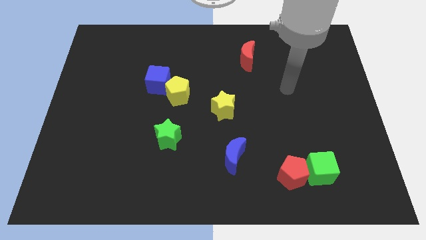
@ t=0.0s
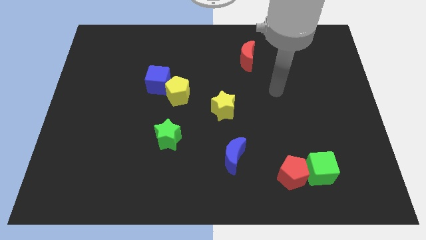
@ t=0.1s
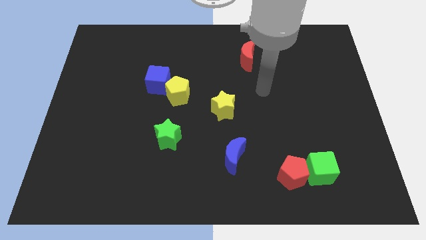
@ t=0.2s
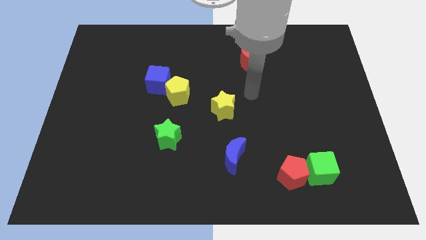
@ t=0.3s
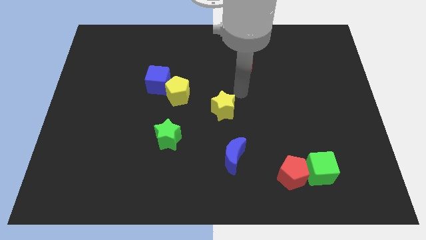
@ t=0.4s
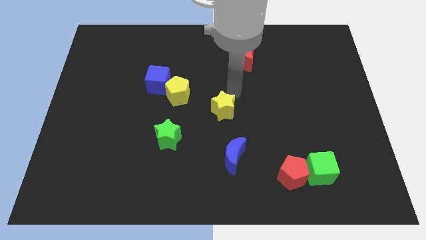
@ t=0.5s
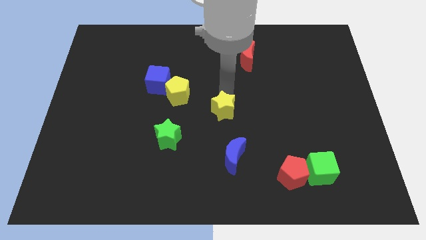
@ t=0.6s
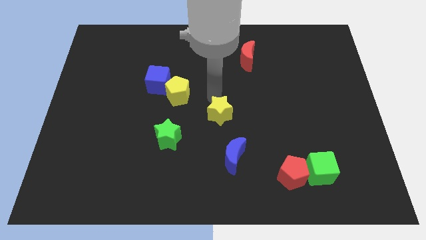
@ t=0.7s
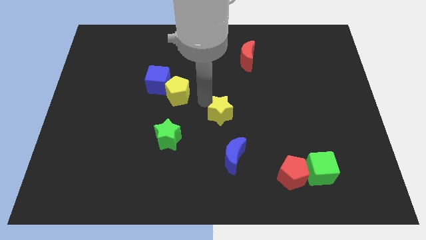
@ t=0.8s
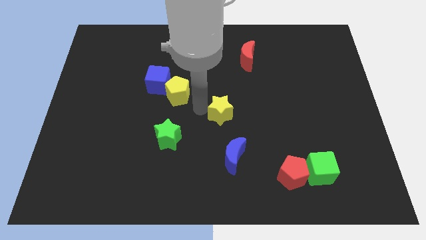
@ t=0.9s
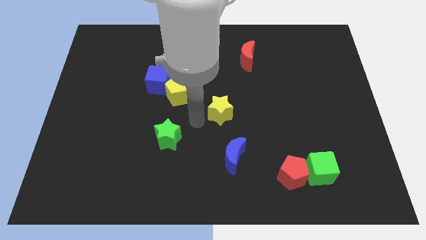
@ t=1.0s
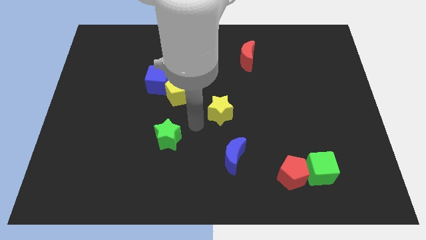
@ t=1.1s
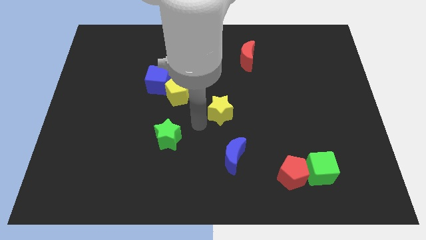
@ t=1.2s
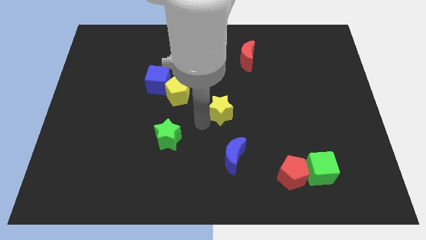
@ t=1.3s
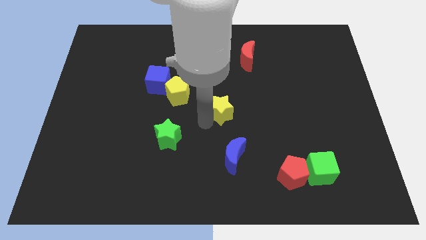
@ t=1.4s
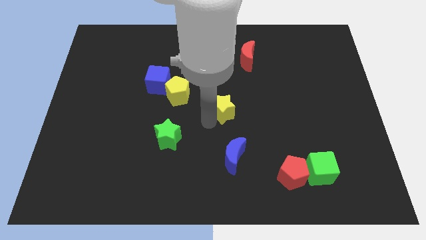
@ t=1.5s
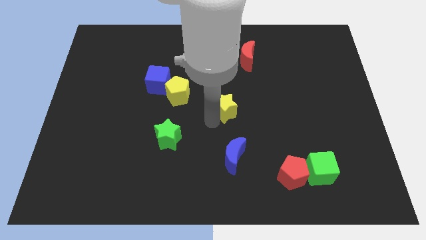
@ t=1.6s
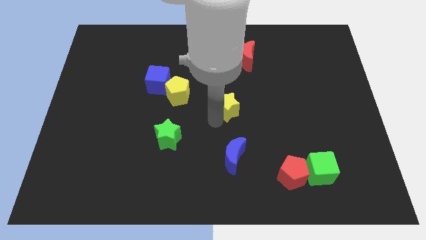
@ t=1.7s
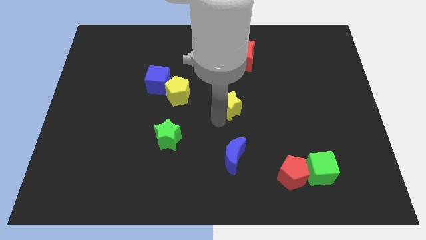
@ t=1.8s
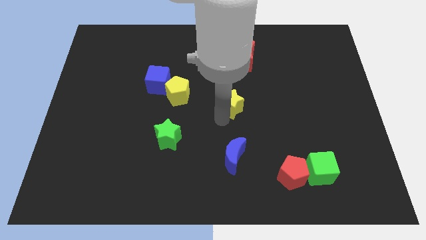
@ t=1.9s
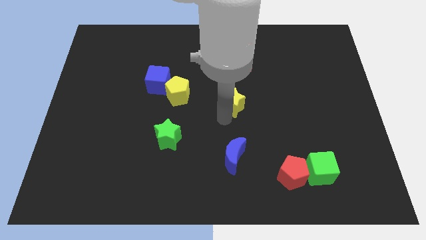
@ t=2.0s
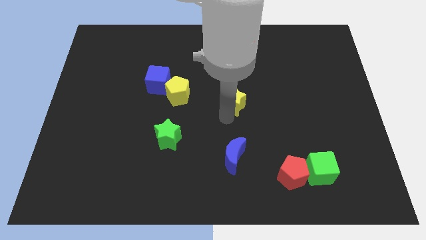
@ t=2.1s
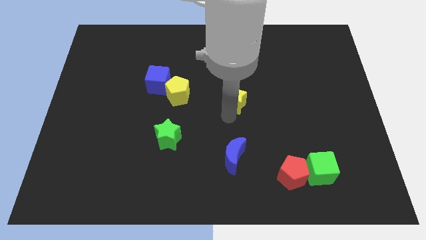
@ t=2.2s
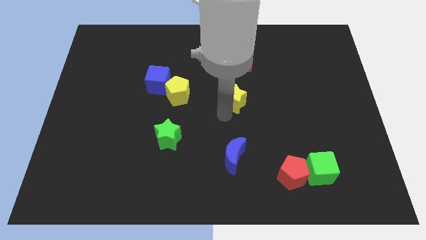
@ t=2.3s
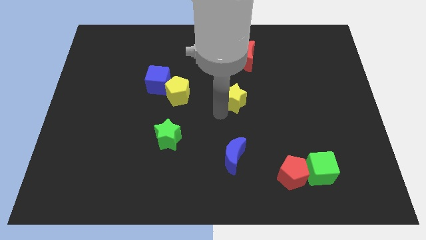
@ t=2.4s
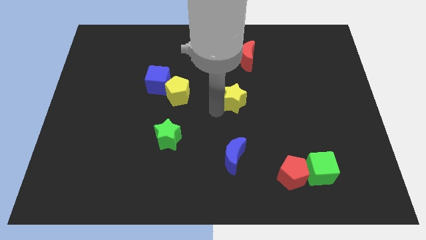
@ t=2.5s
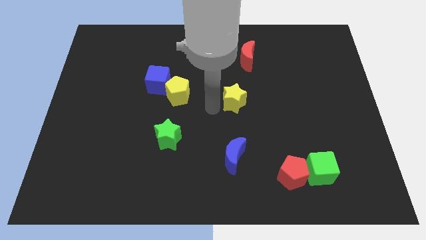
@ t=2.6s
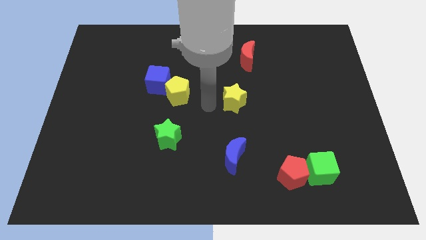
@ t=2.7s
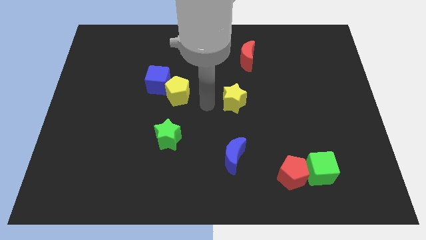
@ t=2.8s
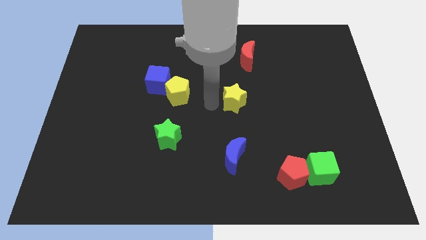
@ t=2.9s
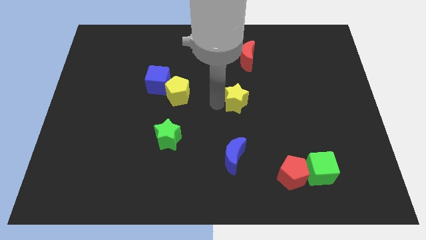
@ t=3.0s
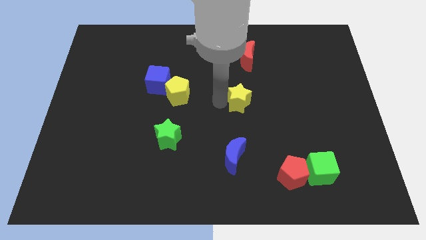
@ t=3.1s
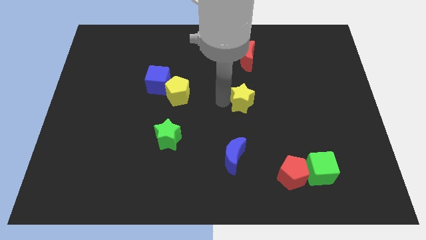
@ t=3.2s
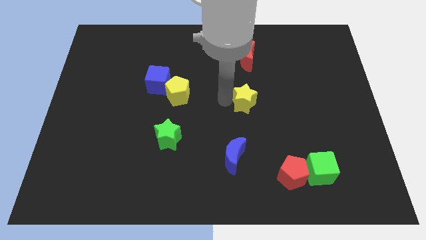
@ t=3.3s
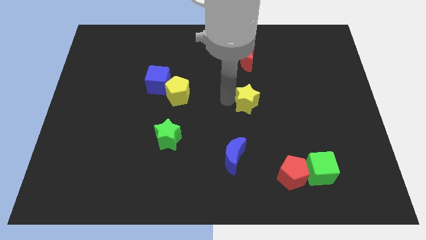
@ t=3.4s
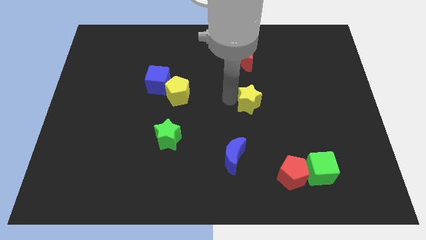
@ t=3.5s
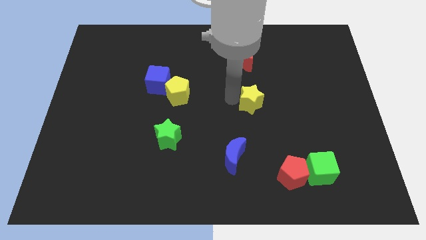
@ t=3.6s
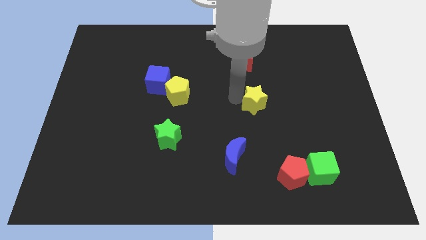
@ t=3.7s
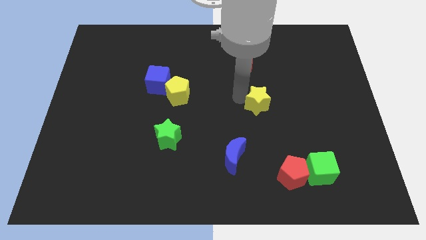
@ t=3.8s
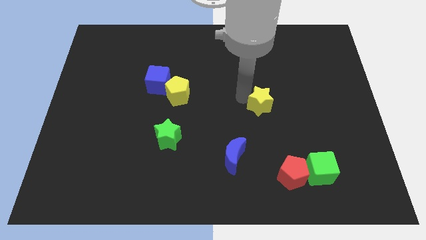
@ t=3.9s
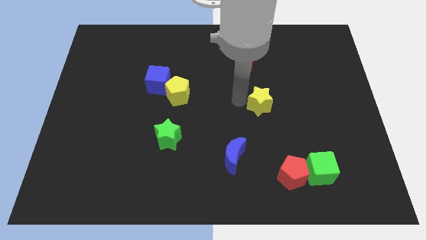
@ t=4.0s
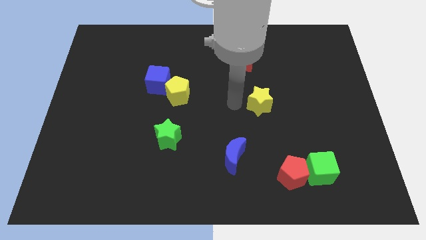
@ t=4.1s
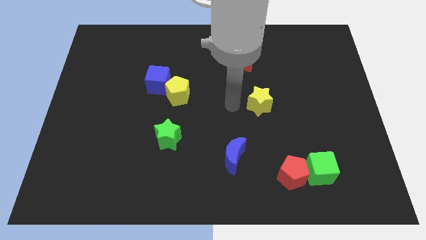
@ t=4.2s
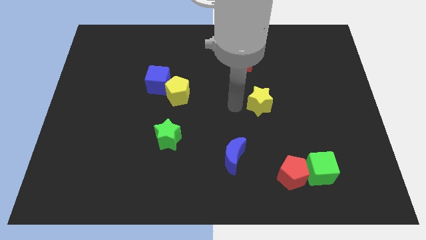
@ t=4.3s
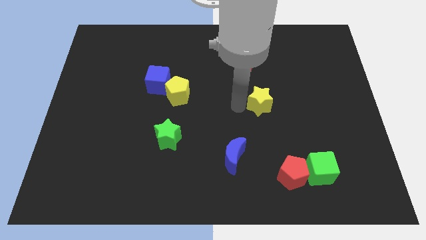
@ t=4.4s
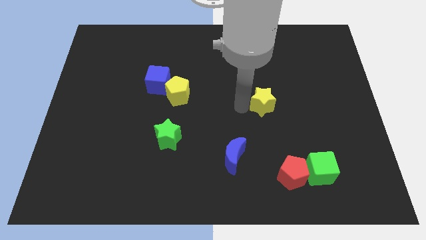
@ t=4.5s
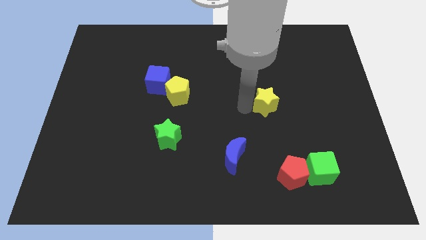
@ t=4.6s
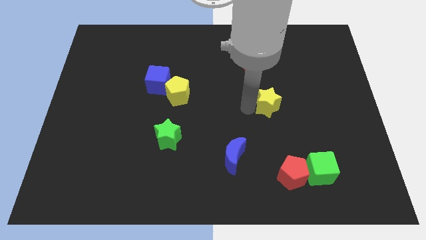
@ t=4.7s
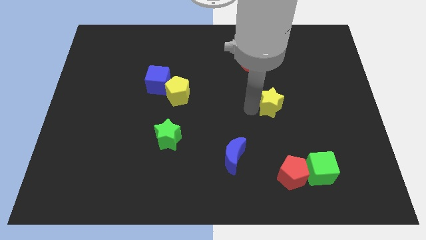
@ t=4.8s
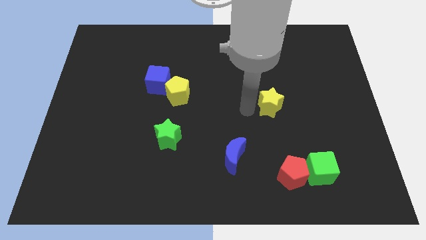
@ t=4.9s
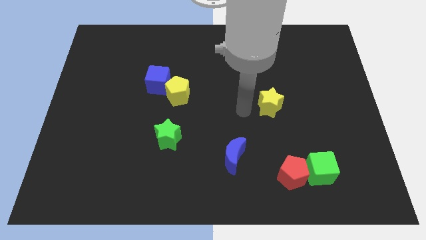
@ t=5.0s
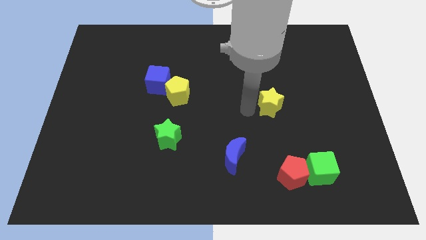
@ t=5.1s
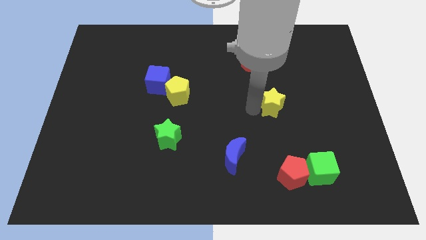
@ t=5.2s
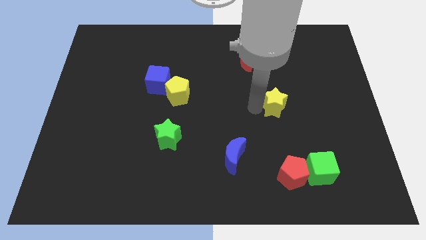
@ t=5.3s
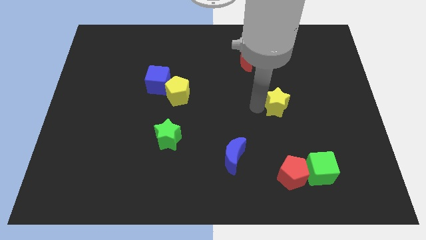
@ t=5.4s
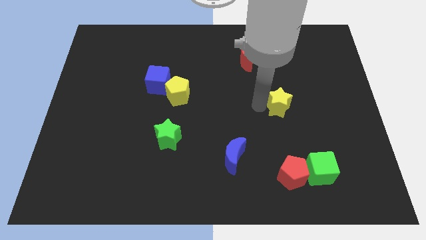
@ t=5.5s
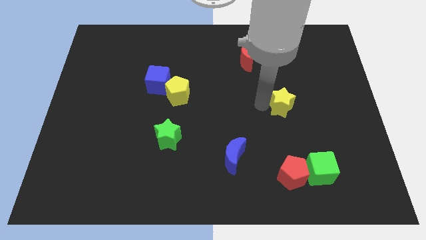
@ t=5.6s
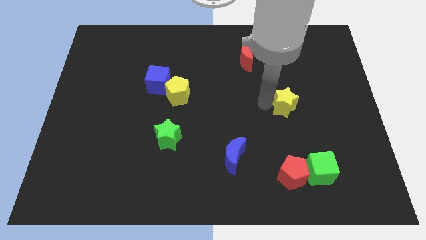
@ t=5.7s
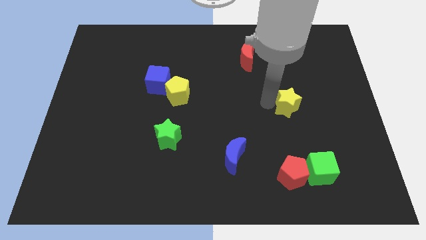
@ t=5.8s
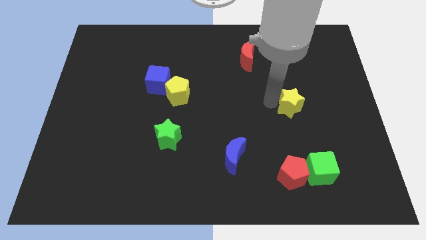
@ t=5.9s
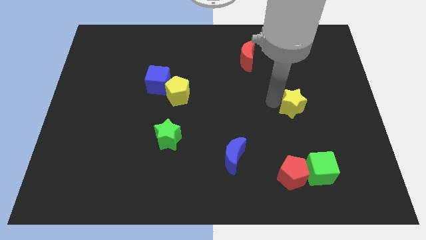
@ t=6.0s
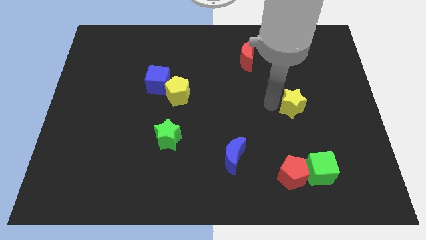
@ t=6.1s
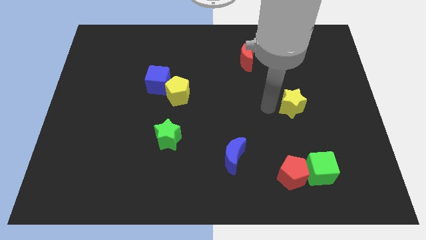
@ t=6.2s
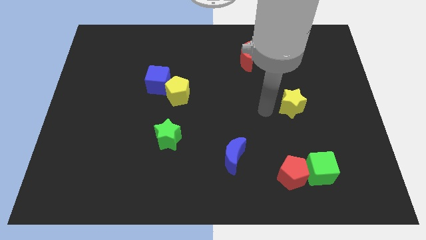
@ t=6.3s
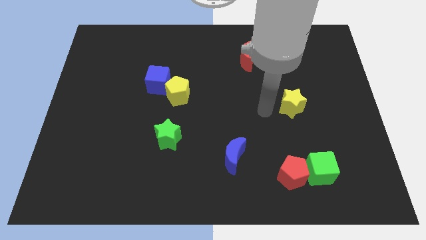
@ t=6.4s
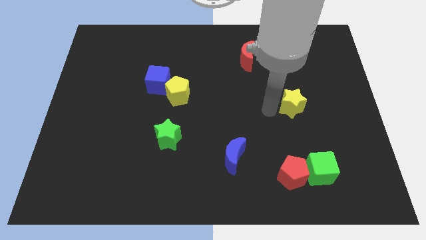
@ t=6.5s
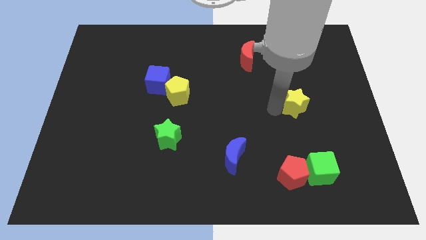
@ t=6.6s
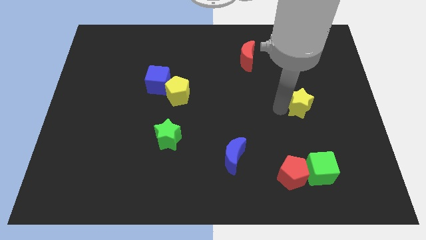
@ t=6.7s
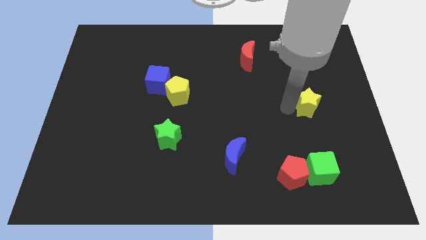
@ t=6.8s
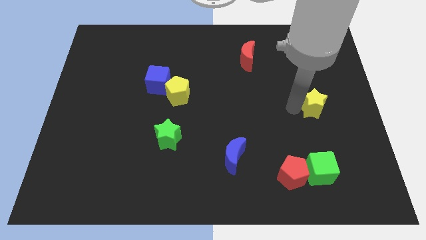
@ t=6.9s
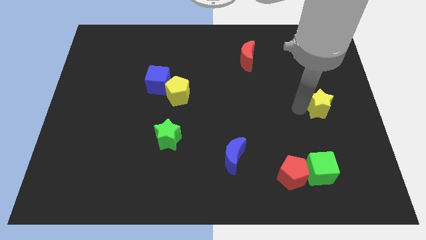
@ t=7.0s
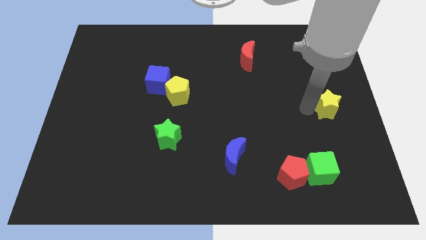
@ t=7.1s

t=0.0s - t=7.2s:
move the yellow star to the center right
